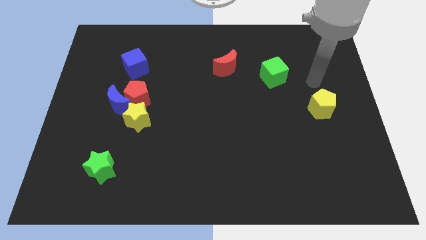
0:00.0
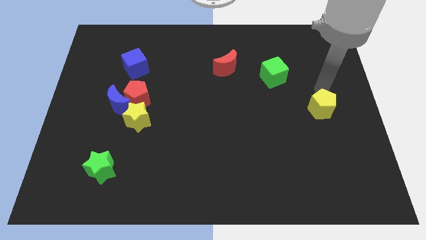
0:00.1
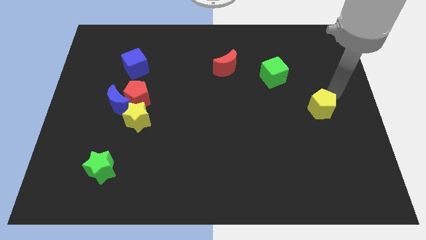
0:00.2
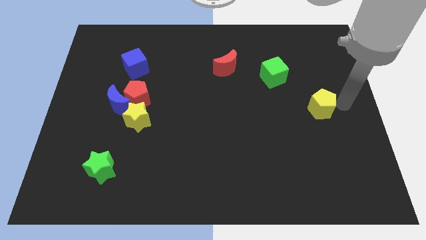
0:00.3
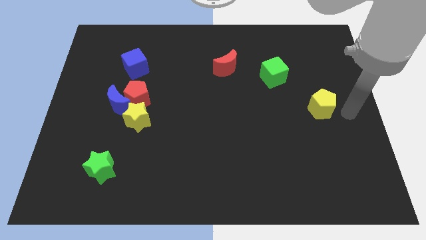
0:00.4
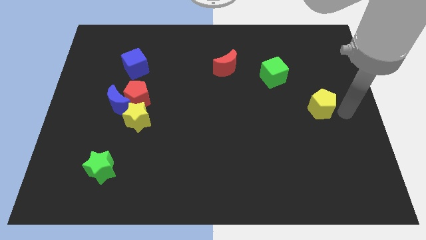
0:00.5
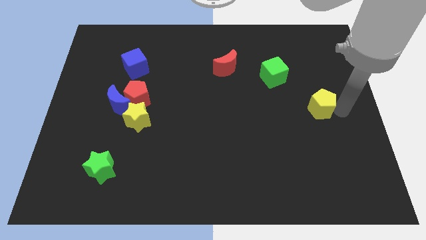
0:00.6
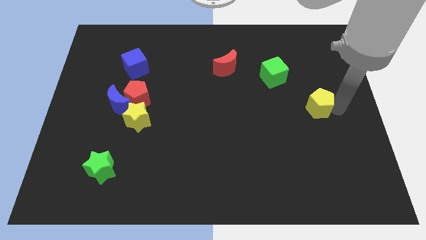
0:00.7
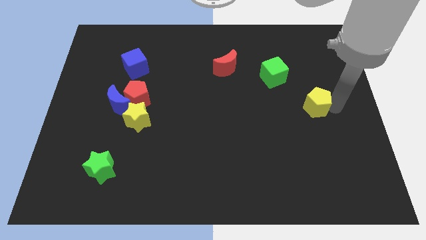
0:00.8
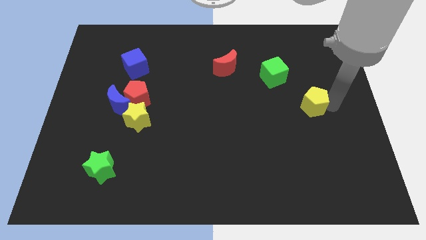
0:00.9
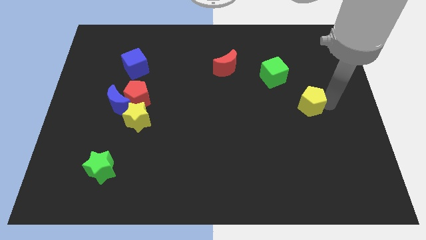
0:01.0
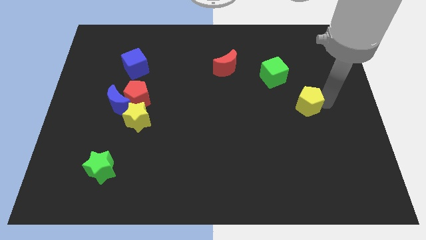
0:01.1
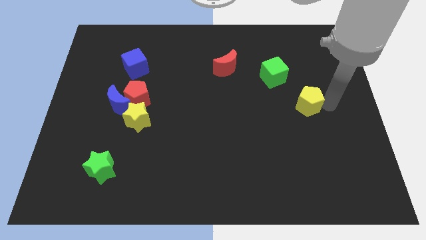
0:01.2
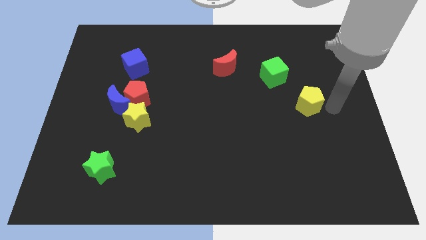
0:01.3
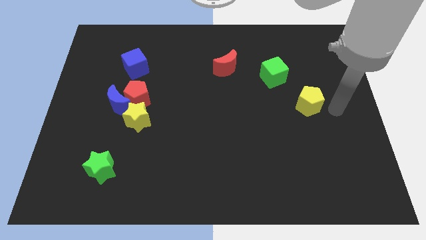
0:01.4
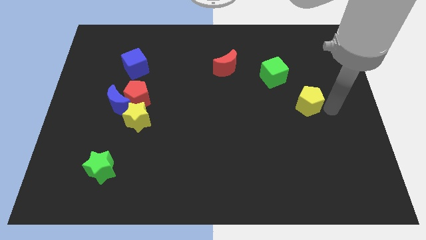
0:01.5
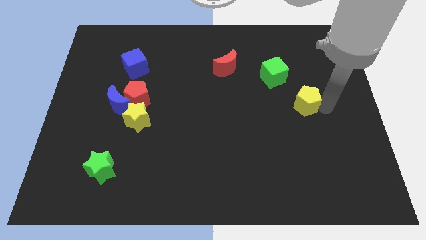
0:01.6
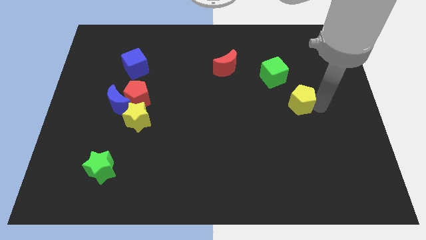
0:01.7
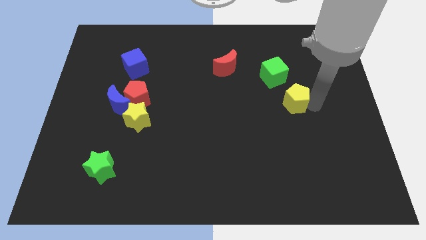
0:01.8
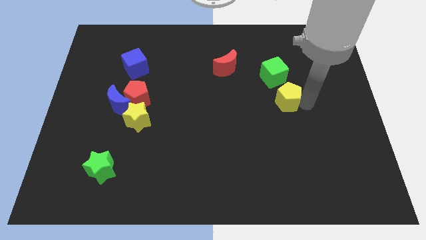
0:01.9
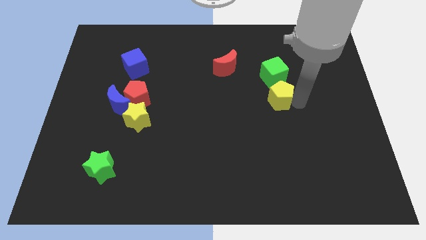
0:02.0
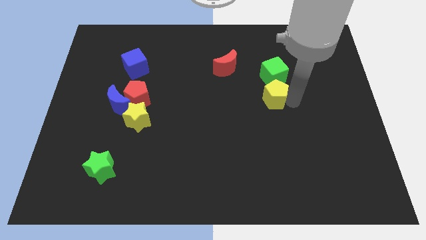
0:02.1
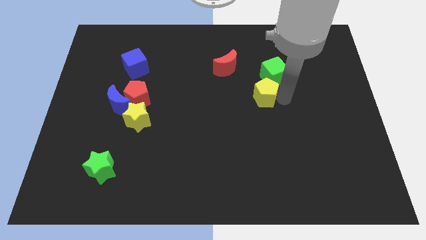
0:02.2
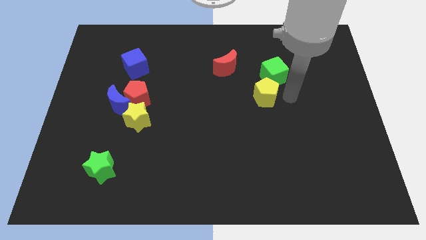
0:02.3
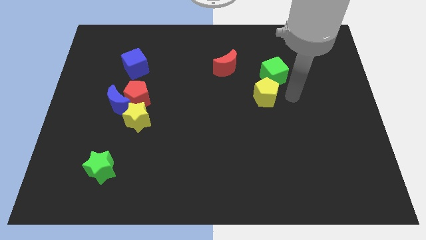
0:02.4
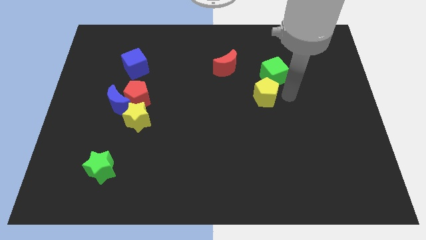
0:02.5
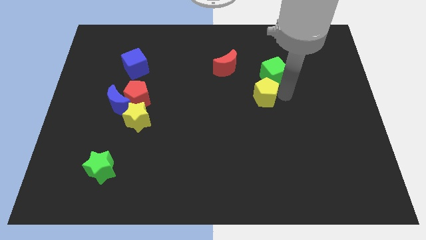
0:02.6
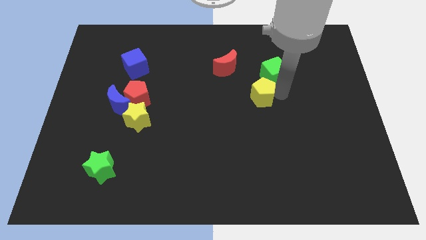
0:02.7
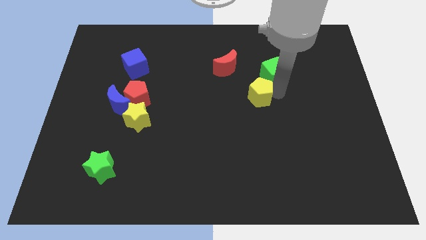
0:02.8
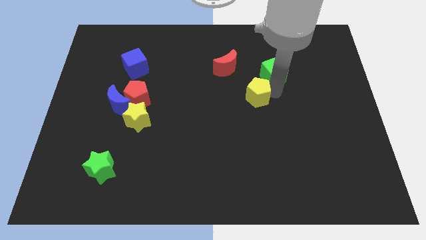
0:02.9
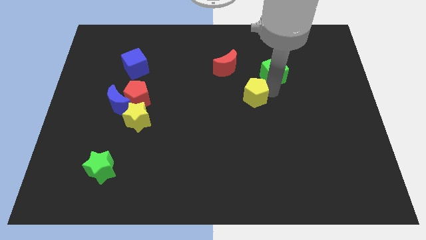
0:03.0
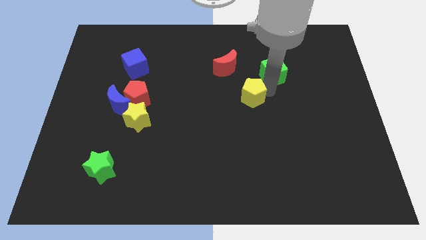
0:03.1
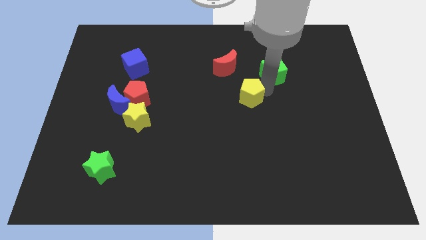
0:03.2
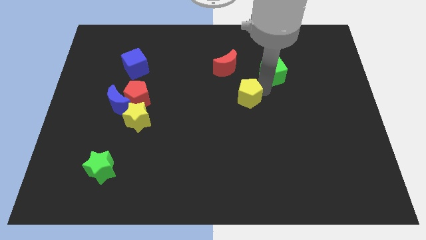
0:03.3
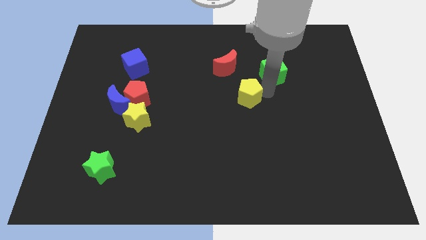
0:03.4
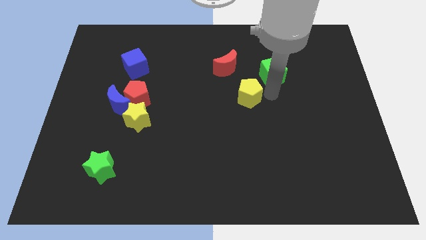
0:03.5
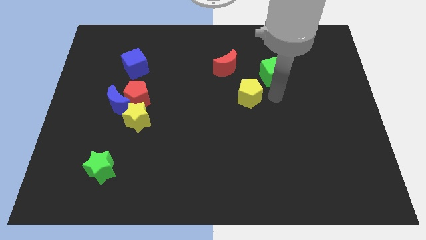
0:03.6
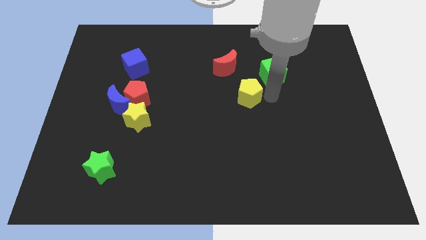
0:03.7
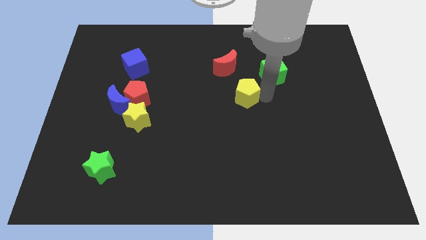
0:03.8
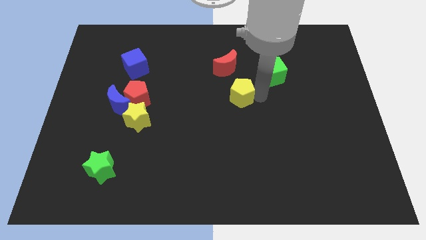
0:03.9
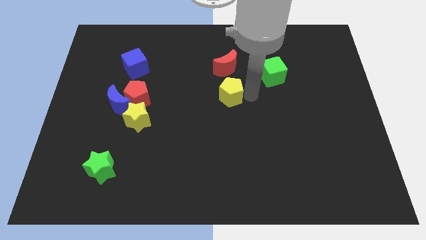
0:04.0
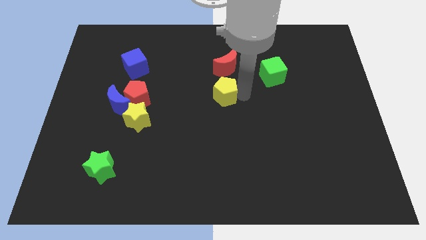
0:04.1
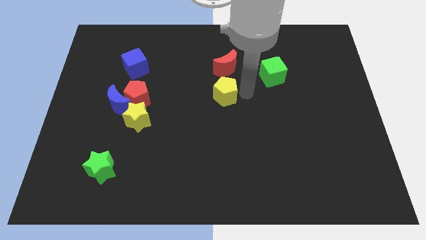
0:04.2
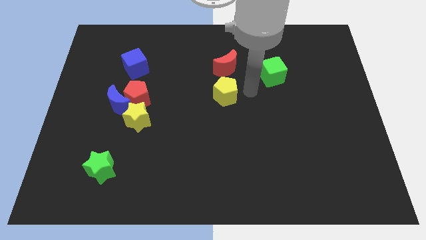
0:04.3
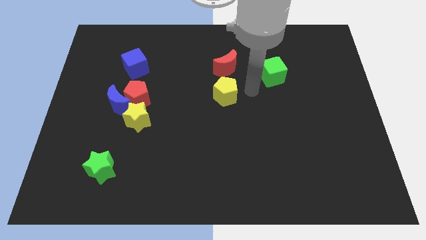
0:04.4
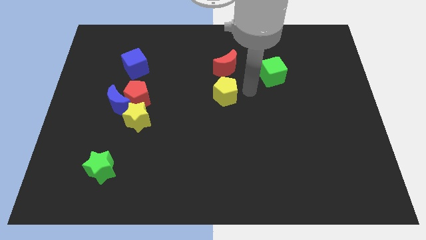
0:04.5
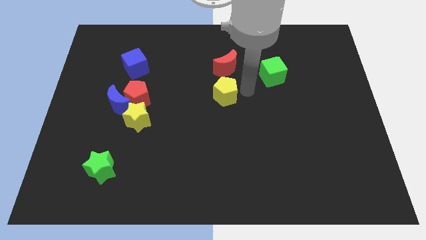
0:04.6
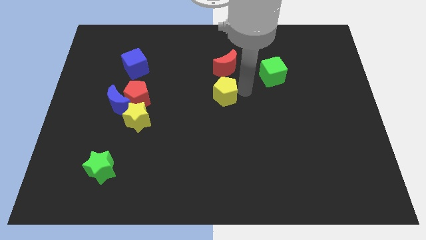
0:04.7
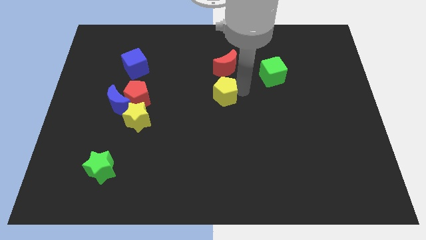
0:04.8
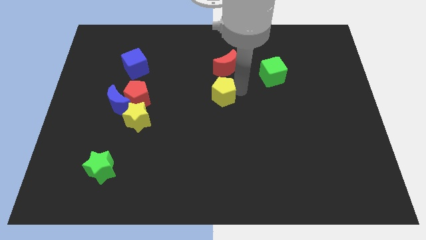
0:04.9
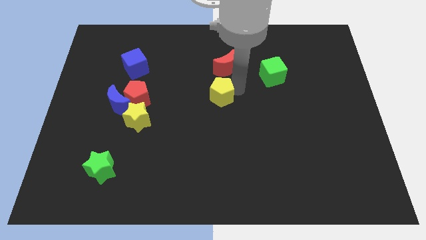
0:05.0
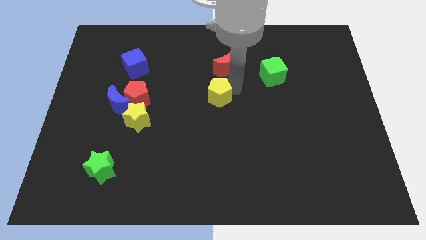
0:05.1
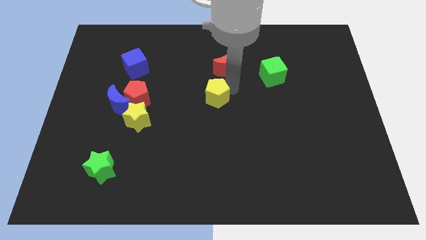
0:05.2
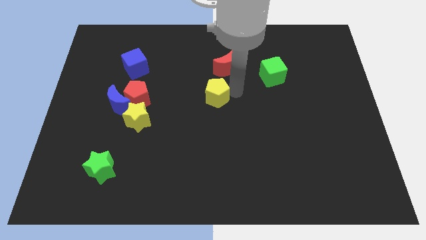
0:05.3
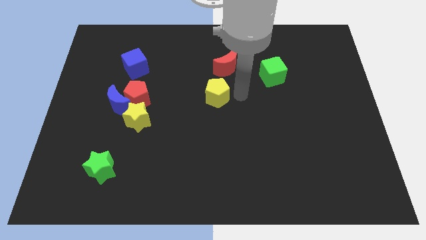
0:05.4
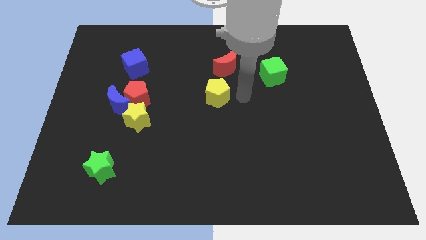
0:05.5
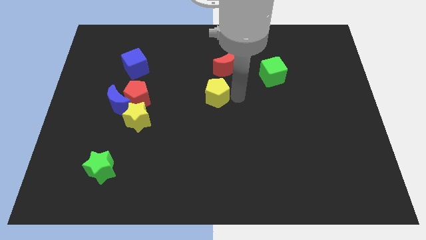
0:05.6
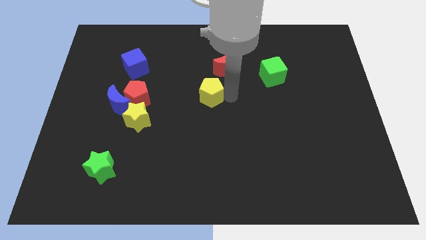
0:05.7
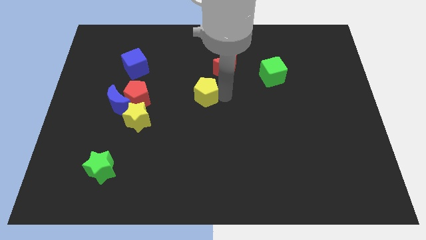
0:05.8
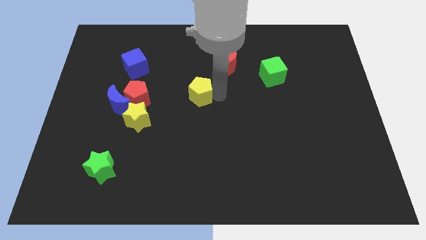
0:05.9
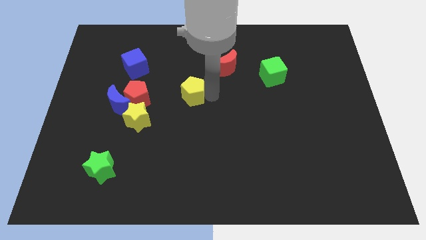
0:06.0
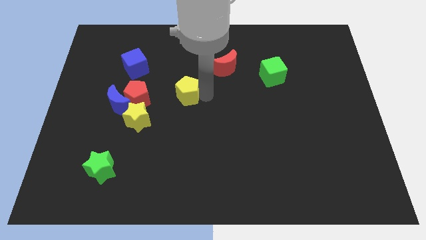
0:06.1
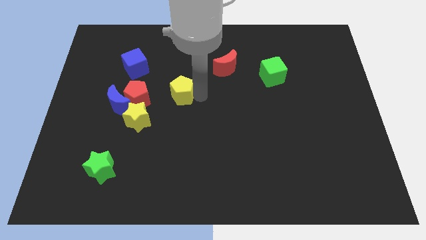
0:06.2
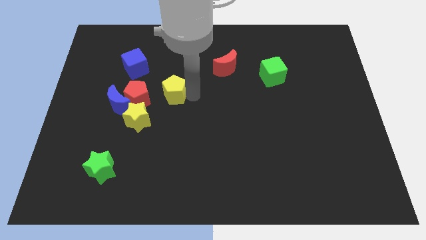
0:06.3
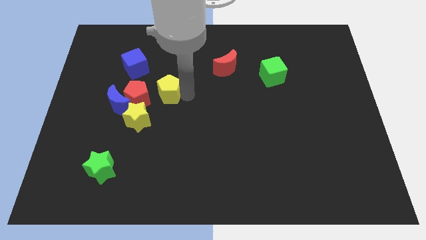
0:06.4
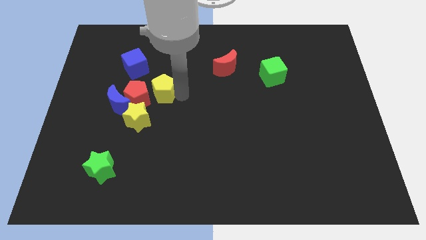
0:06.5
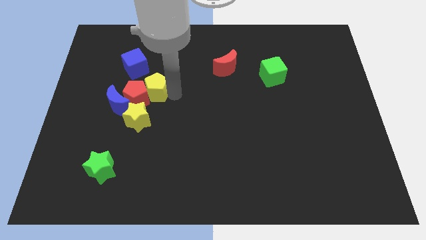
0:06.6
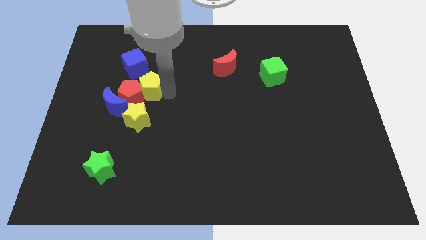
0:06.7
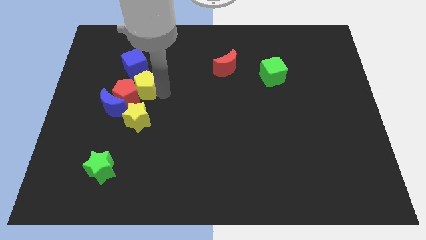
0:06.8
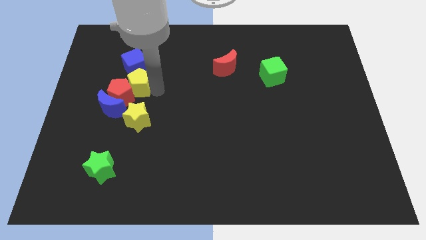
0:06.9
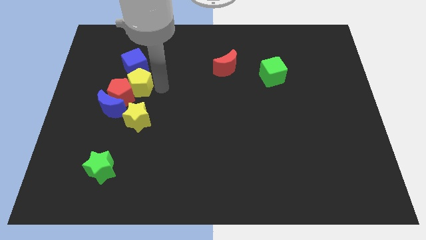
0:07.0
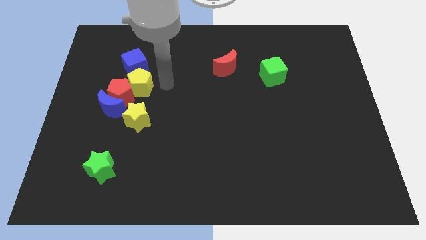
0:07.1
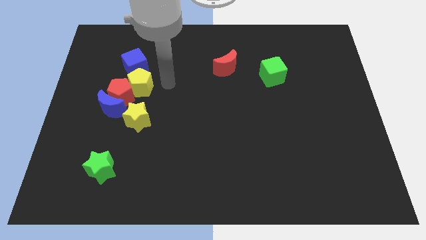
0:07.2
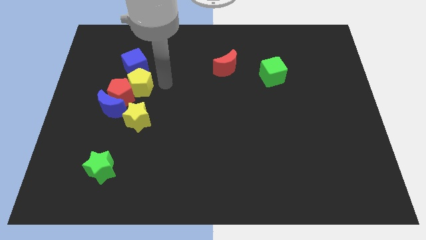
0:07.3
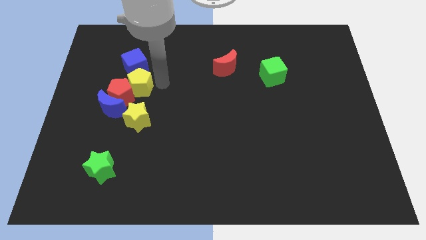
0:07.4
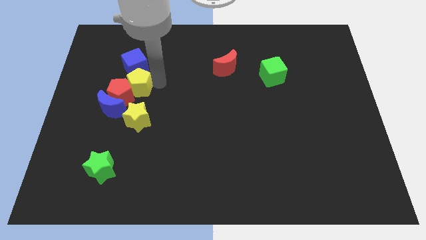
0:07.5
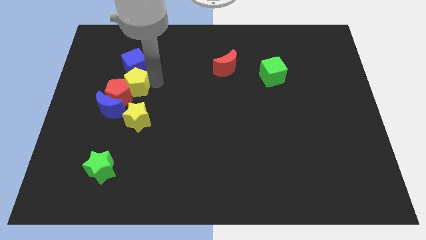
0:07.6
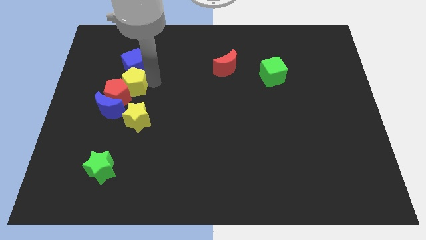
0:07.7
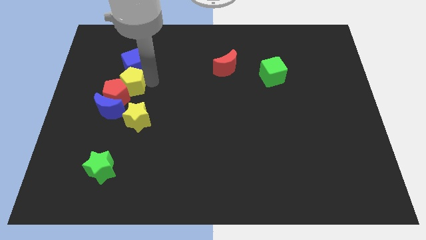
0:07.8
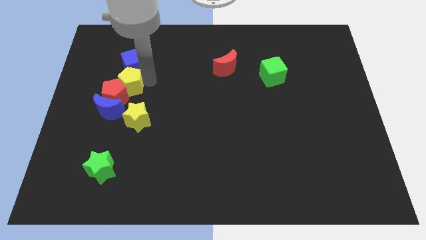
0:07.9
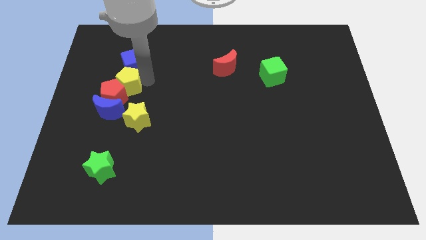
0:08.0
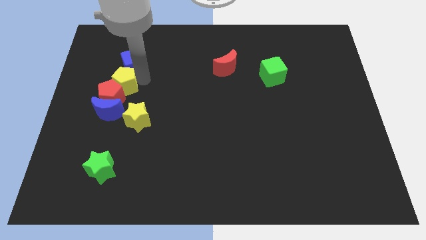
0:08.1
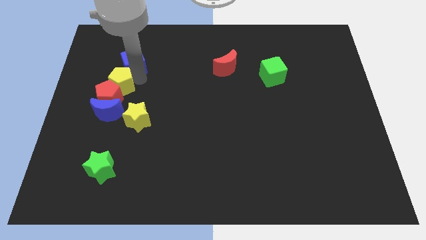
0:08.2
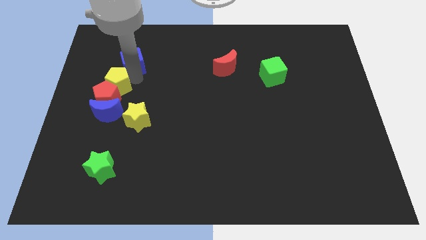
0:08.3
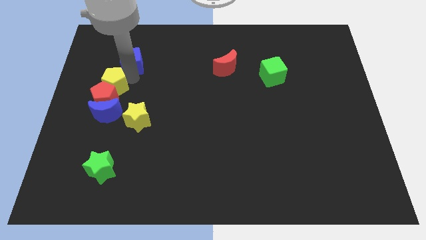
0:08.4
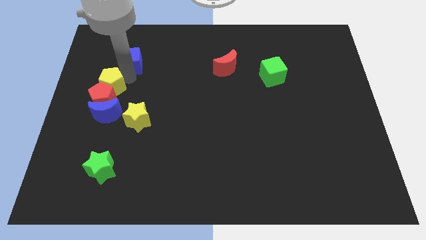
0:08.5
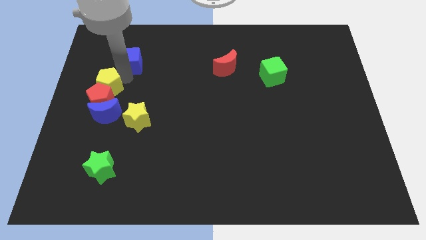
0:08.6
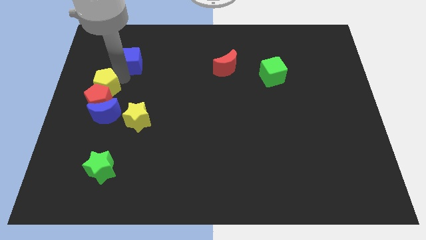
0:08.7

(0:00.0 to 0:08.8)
put the yellow pentagon to the left side of the board
